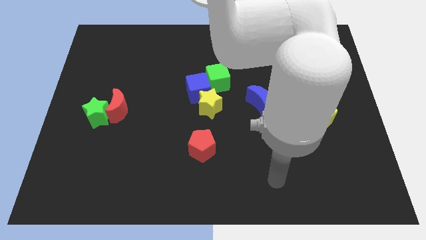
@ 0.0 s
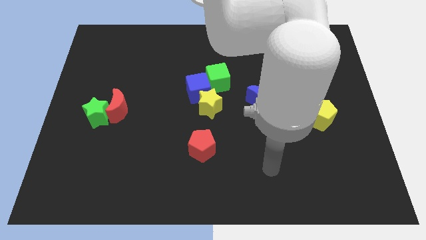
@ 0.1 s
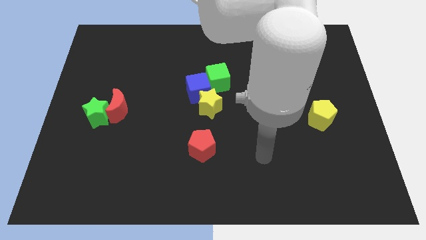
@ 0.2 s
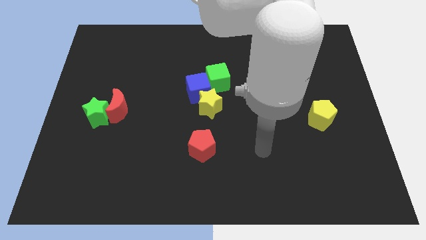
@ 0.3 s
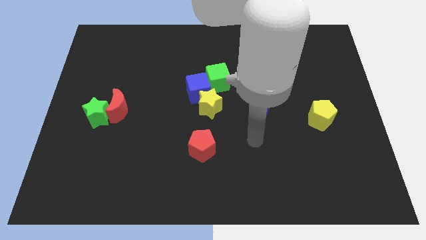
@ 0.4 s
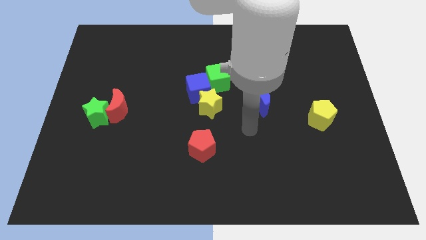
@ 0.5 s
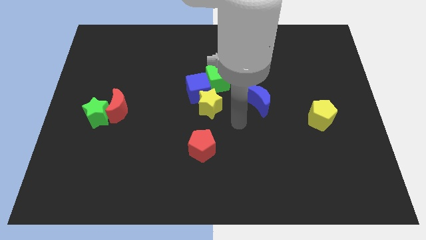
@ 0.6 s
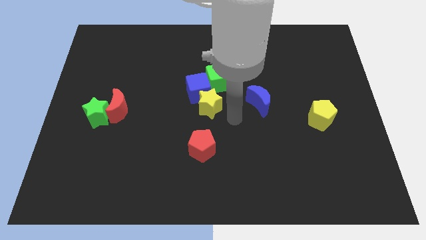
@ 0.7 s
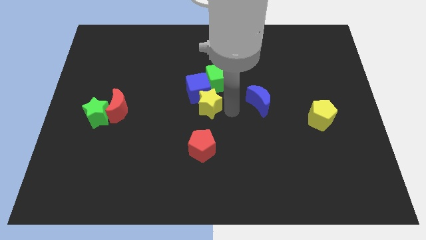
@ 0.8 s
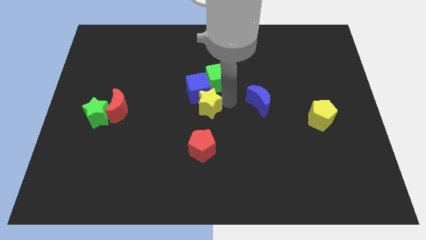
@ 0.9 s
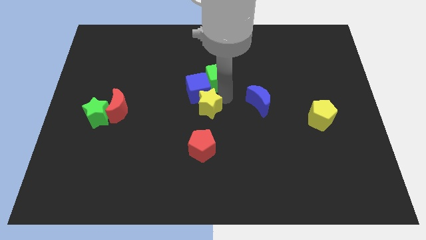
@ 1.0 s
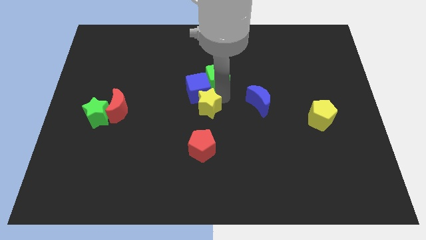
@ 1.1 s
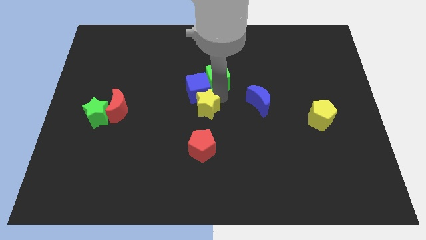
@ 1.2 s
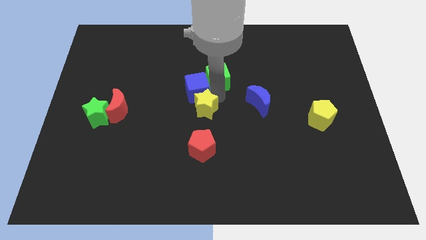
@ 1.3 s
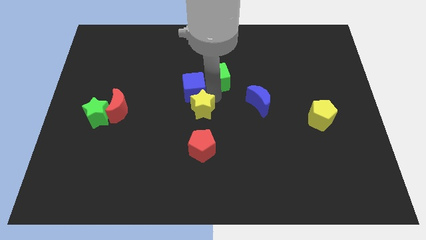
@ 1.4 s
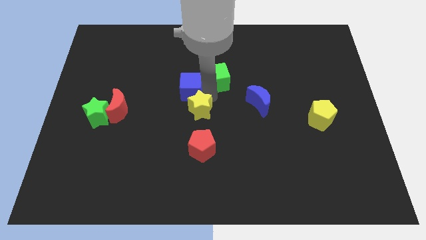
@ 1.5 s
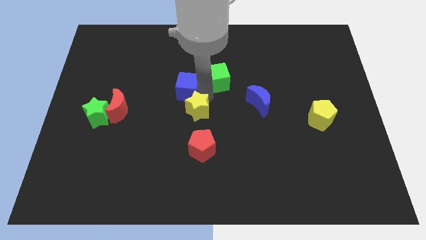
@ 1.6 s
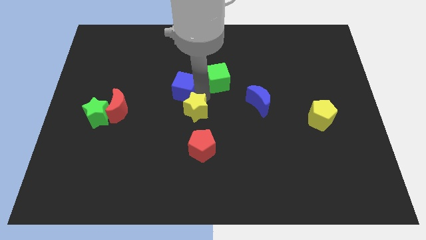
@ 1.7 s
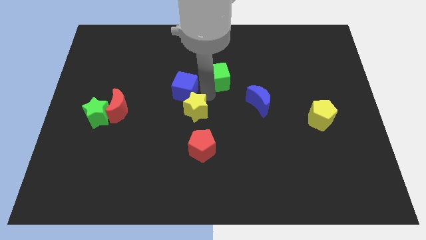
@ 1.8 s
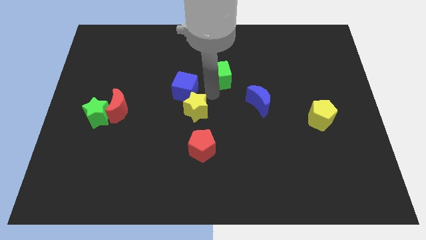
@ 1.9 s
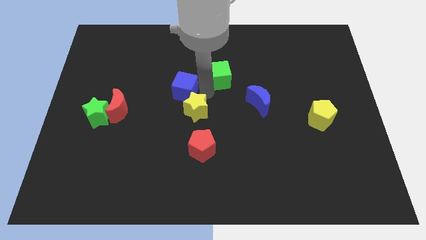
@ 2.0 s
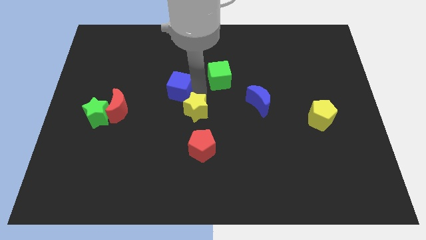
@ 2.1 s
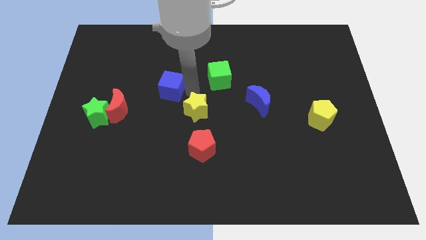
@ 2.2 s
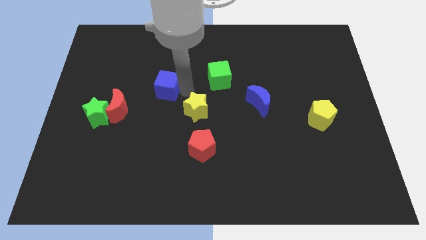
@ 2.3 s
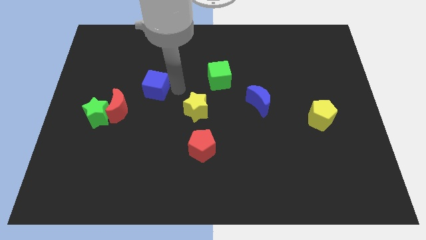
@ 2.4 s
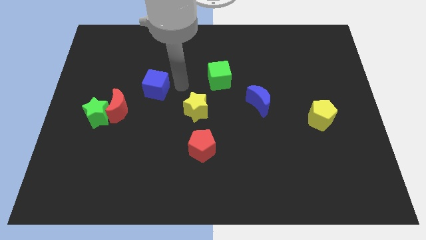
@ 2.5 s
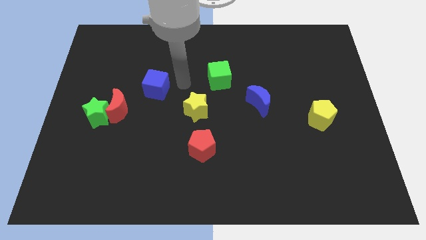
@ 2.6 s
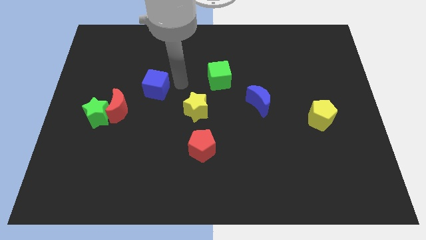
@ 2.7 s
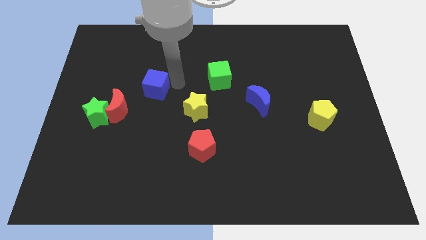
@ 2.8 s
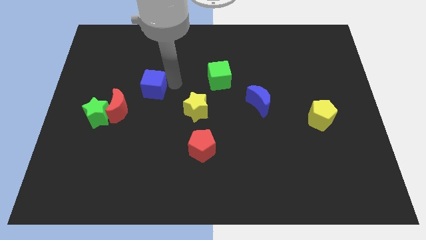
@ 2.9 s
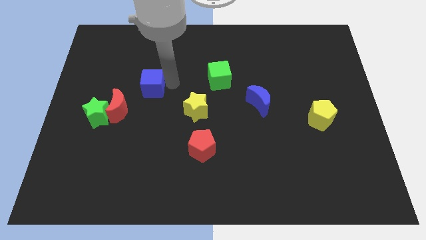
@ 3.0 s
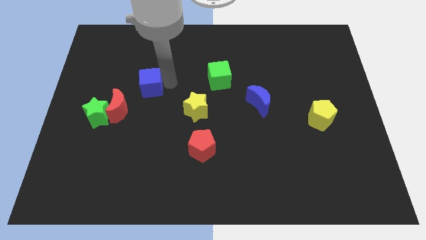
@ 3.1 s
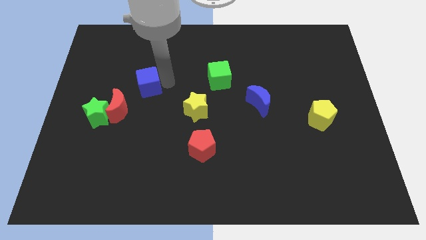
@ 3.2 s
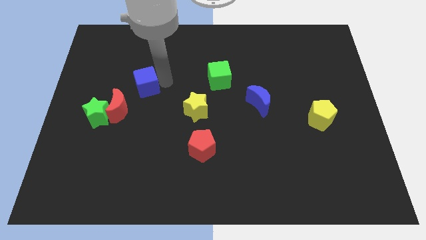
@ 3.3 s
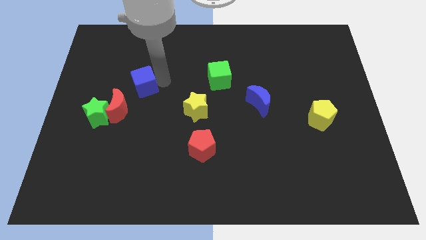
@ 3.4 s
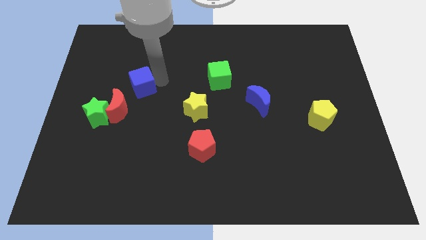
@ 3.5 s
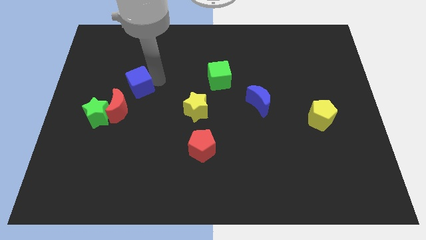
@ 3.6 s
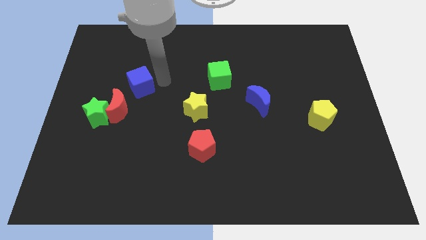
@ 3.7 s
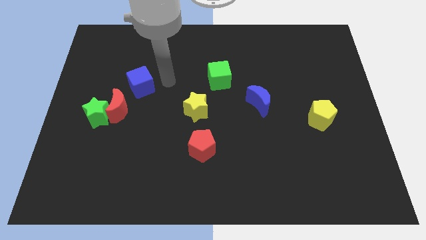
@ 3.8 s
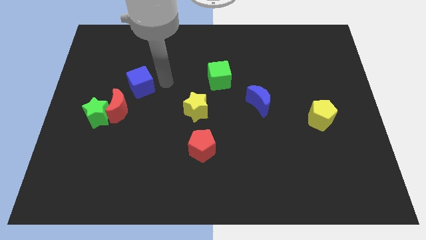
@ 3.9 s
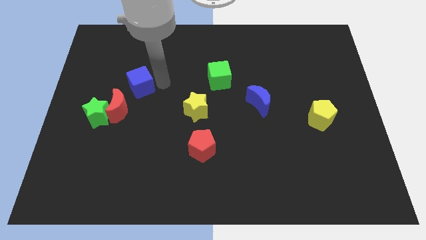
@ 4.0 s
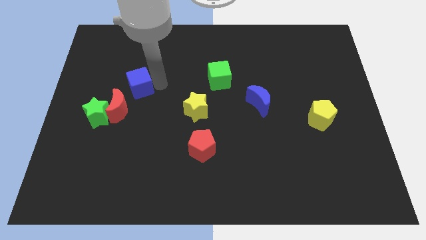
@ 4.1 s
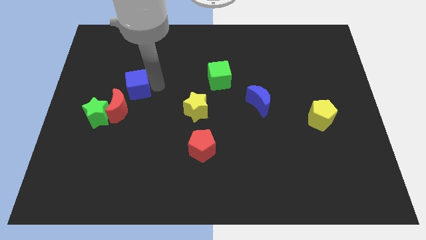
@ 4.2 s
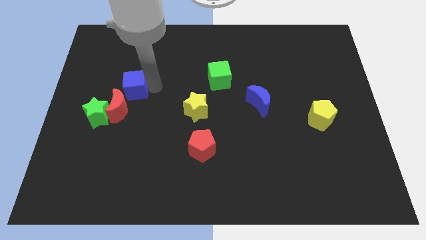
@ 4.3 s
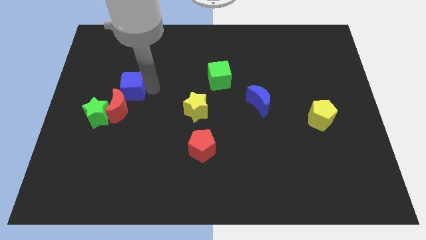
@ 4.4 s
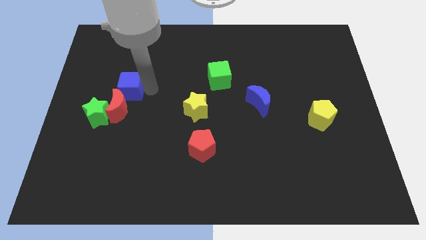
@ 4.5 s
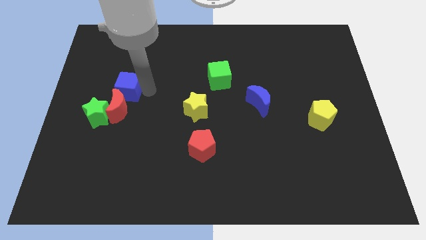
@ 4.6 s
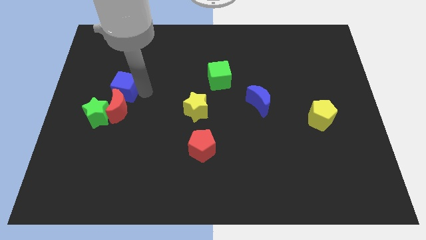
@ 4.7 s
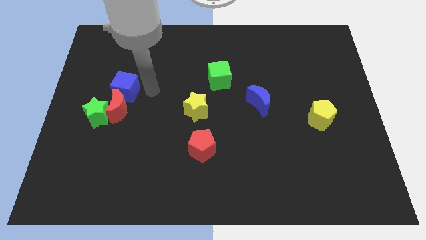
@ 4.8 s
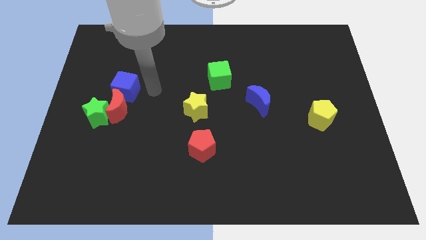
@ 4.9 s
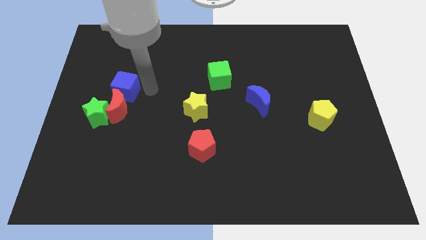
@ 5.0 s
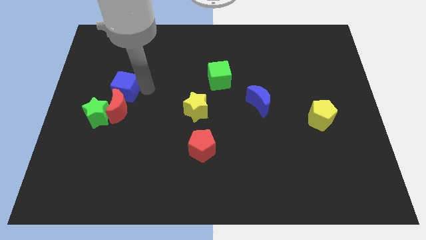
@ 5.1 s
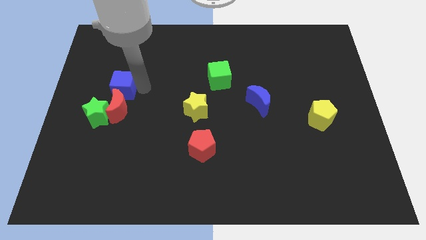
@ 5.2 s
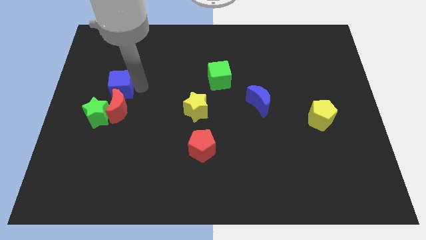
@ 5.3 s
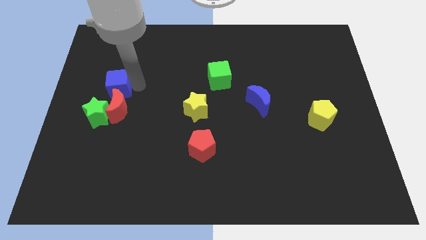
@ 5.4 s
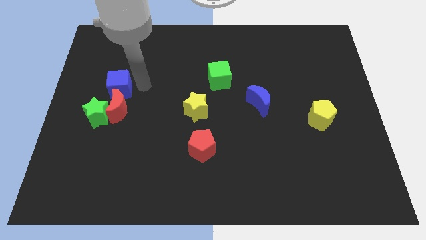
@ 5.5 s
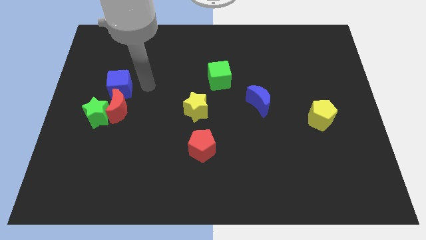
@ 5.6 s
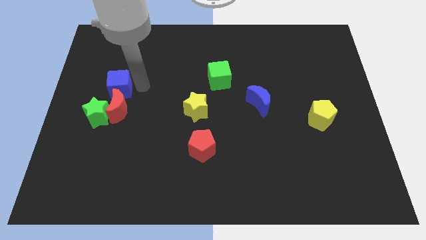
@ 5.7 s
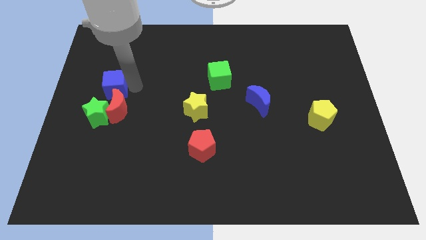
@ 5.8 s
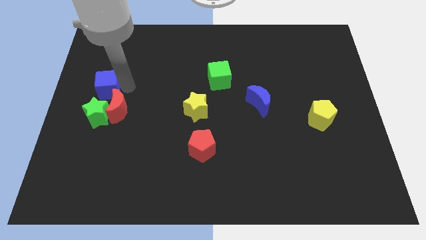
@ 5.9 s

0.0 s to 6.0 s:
move the blue cube to the left side of the board

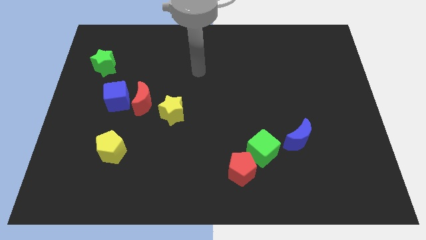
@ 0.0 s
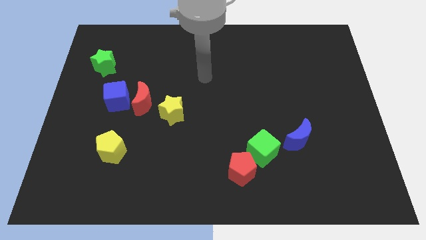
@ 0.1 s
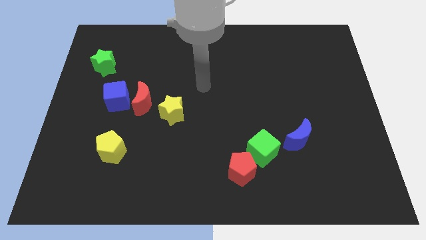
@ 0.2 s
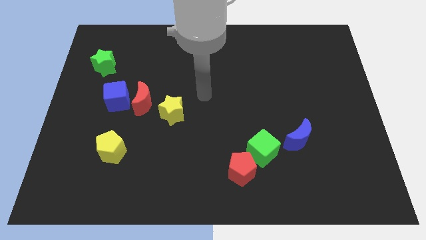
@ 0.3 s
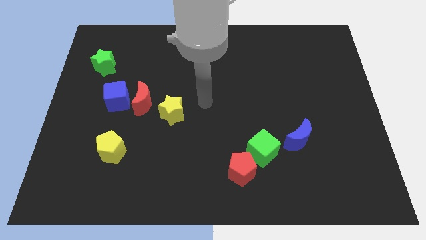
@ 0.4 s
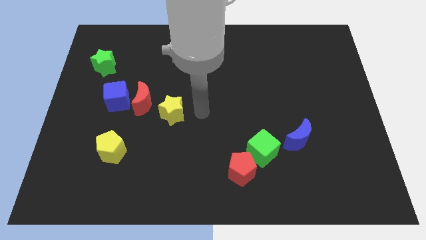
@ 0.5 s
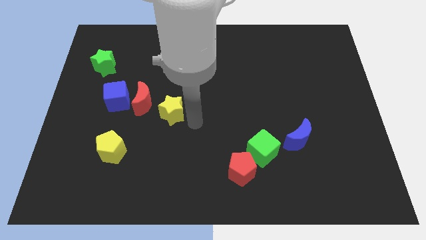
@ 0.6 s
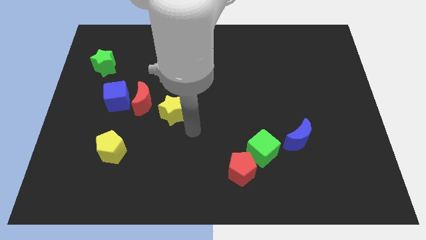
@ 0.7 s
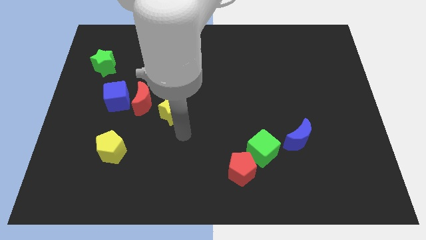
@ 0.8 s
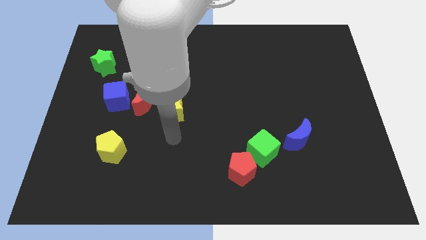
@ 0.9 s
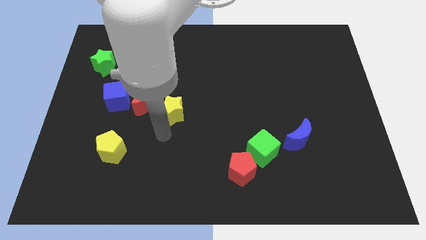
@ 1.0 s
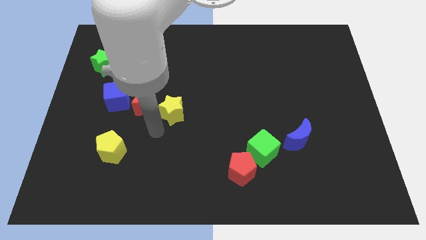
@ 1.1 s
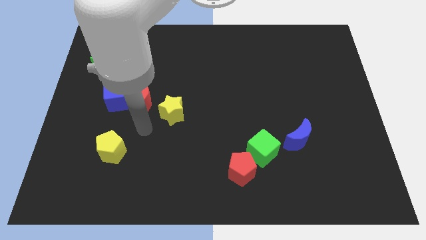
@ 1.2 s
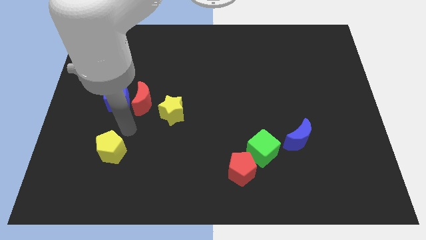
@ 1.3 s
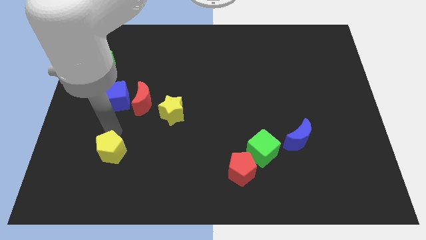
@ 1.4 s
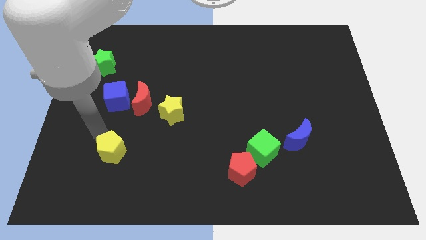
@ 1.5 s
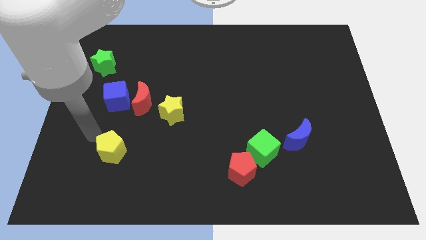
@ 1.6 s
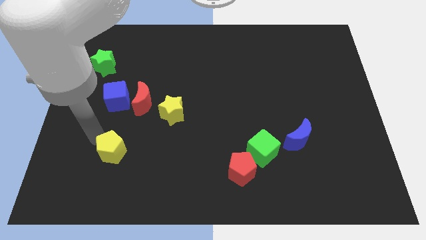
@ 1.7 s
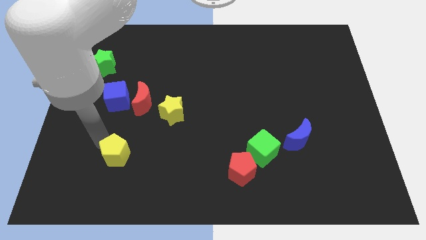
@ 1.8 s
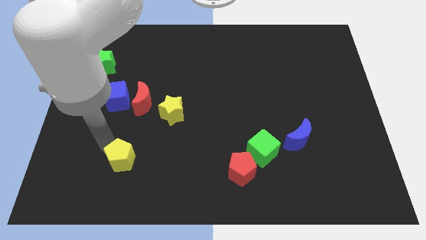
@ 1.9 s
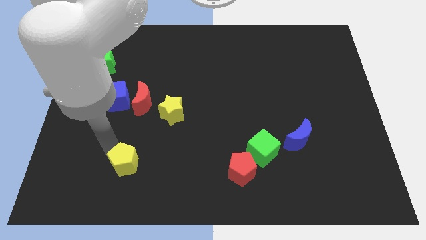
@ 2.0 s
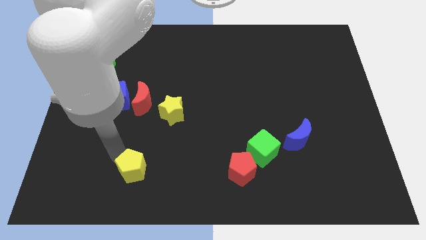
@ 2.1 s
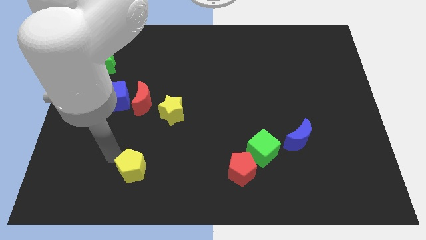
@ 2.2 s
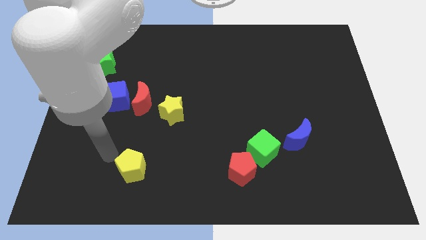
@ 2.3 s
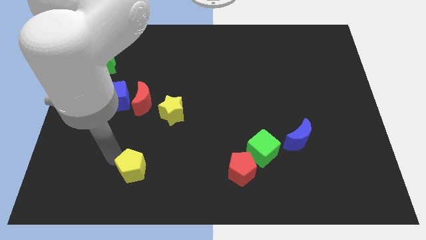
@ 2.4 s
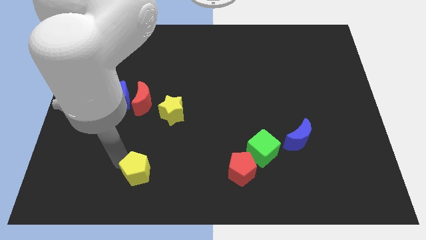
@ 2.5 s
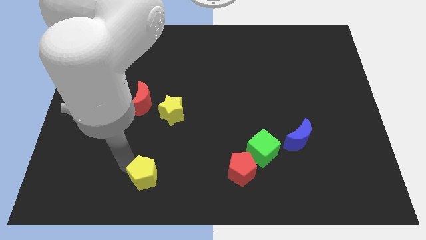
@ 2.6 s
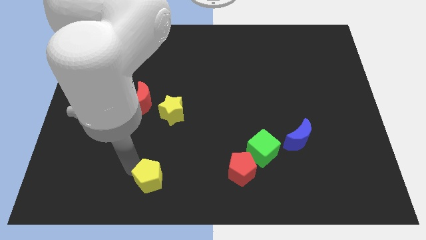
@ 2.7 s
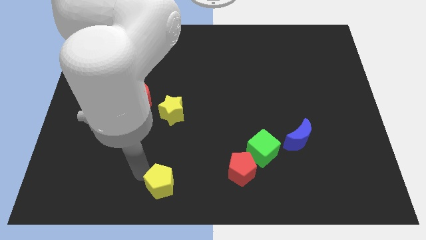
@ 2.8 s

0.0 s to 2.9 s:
move the yellow pentagon to the bottom
